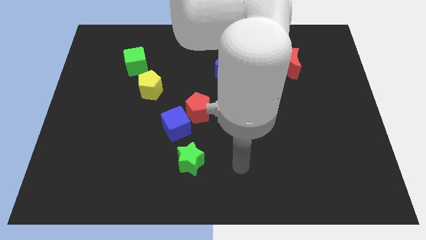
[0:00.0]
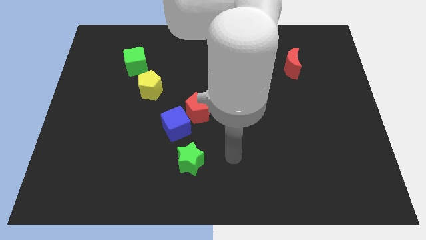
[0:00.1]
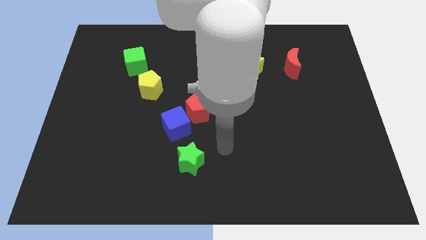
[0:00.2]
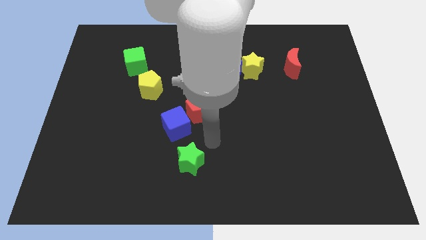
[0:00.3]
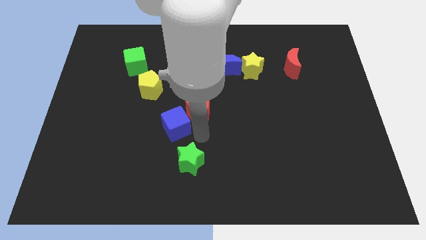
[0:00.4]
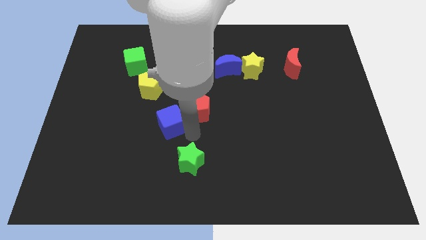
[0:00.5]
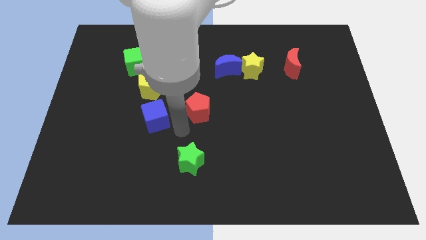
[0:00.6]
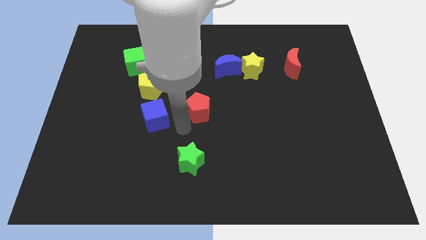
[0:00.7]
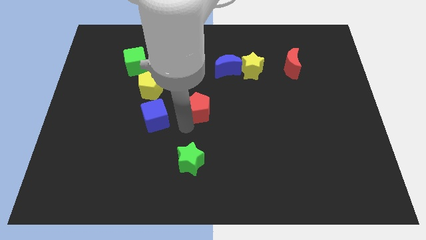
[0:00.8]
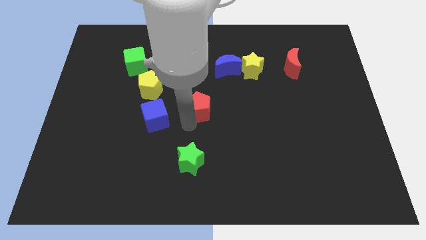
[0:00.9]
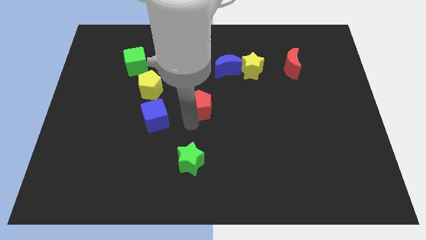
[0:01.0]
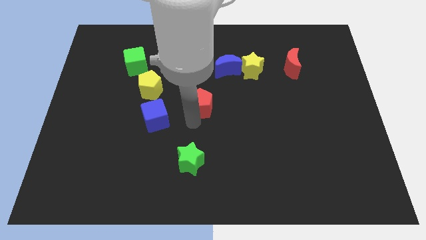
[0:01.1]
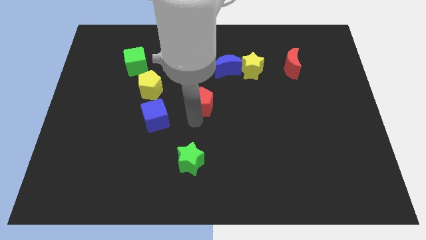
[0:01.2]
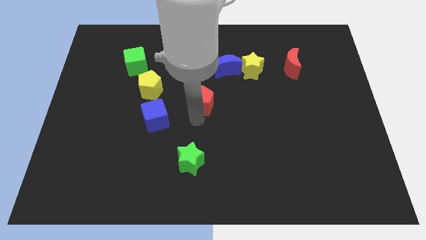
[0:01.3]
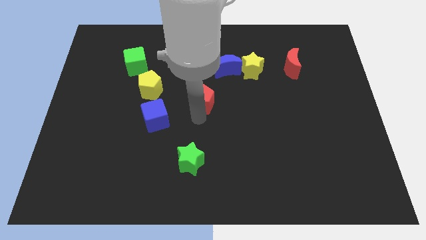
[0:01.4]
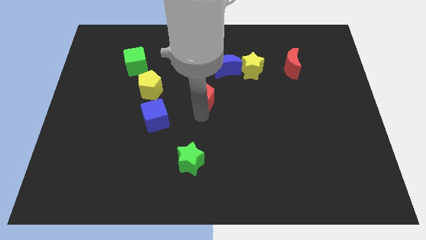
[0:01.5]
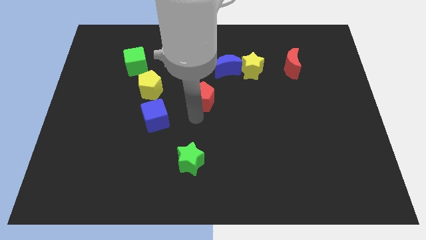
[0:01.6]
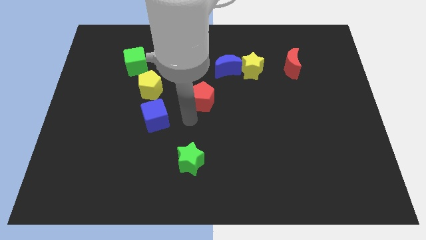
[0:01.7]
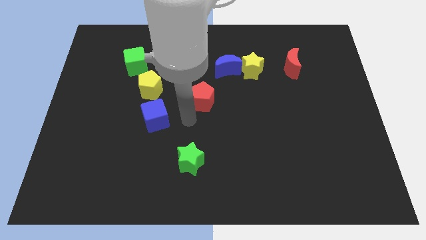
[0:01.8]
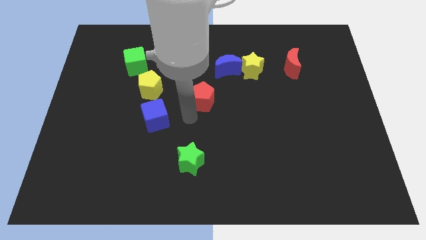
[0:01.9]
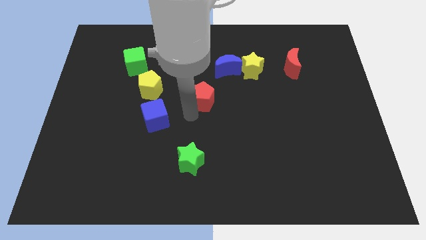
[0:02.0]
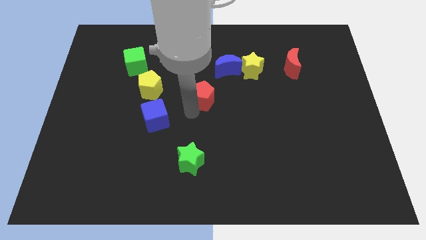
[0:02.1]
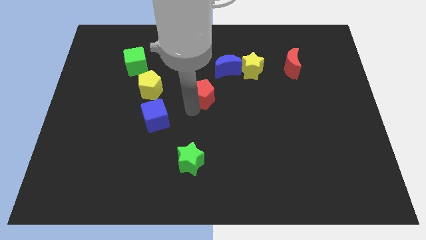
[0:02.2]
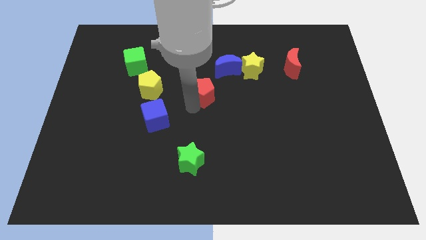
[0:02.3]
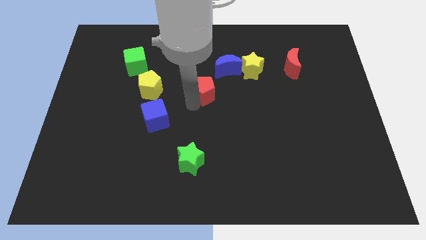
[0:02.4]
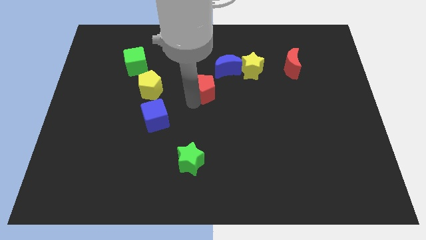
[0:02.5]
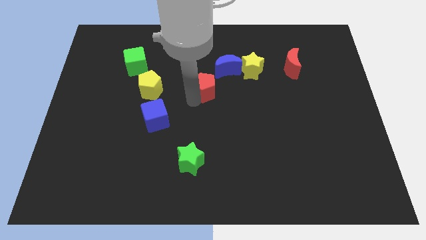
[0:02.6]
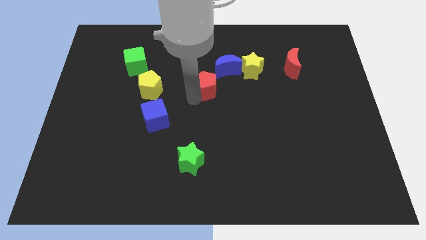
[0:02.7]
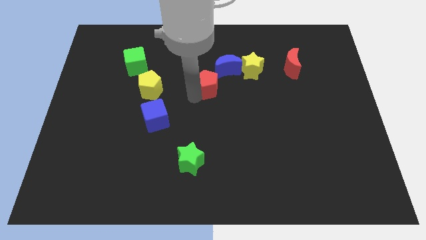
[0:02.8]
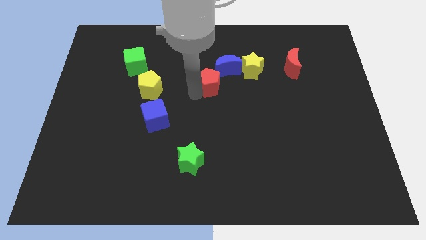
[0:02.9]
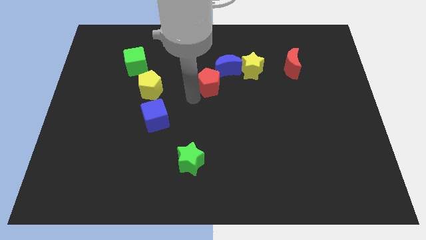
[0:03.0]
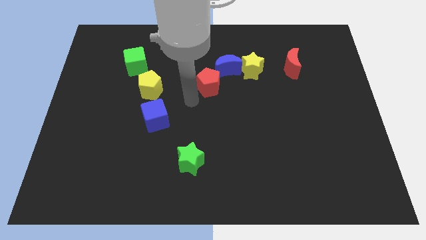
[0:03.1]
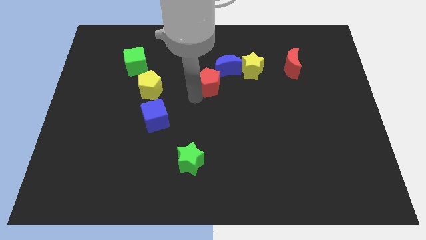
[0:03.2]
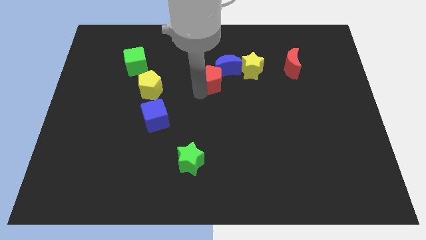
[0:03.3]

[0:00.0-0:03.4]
put the red pentagon next to the blue moon

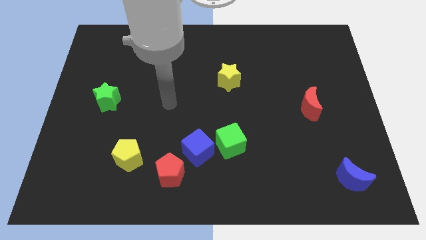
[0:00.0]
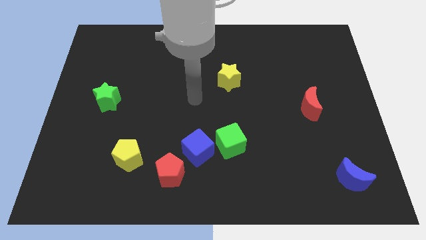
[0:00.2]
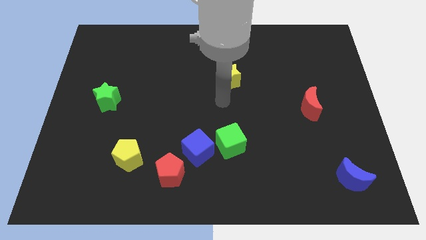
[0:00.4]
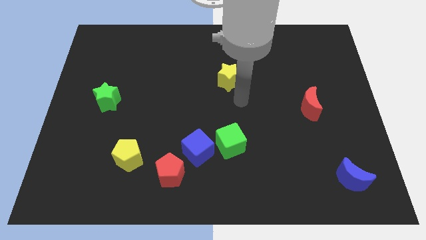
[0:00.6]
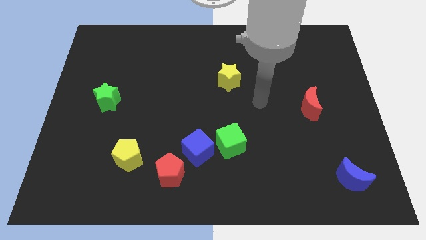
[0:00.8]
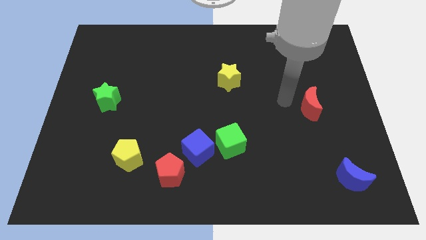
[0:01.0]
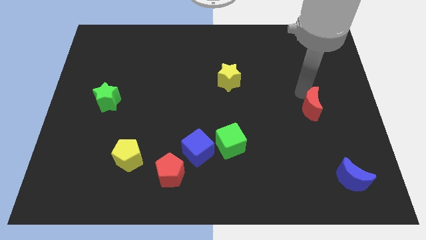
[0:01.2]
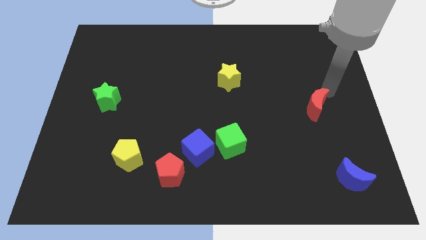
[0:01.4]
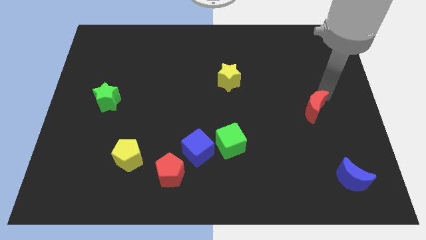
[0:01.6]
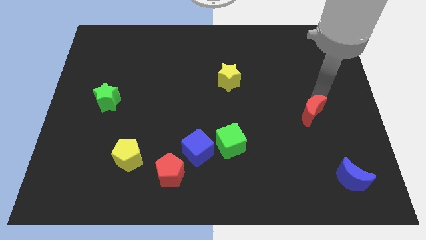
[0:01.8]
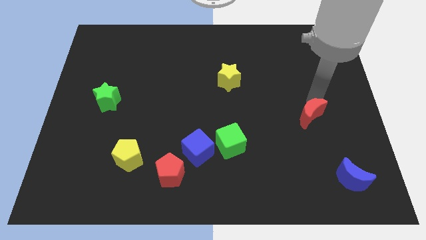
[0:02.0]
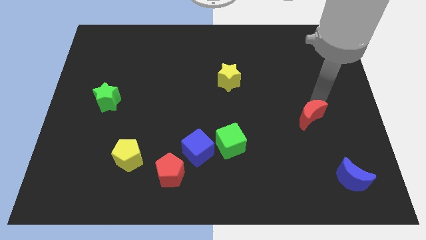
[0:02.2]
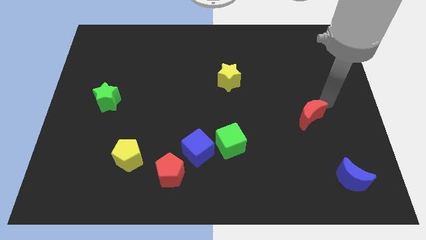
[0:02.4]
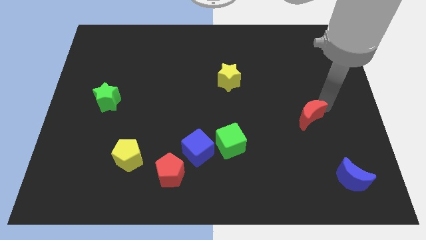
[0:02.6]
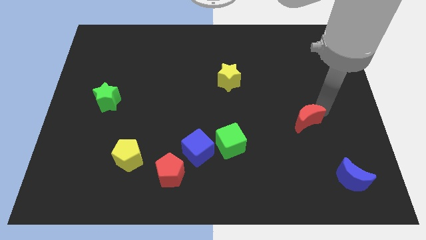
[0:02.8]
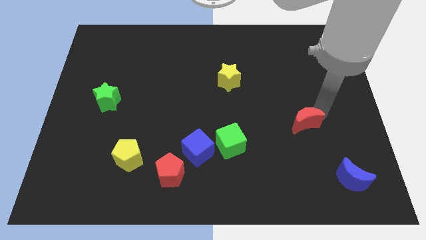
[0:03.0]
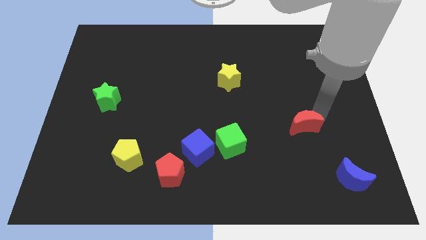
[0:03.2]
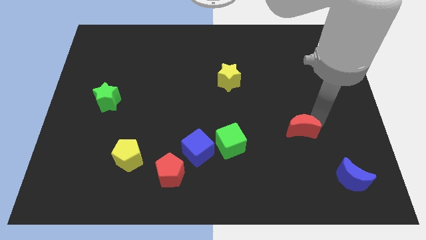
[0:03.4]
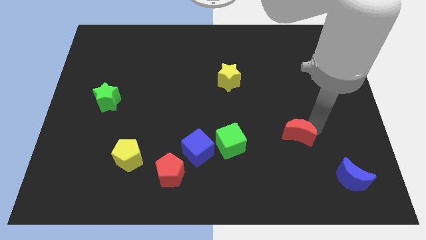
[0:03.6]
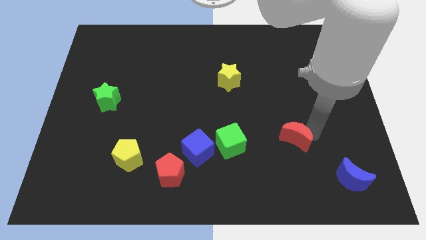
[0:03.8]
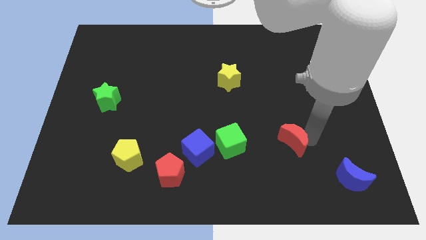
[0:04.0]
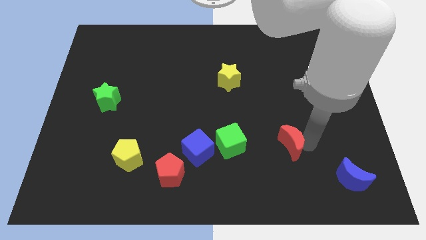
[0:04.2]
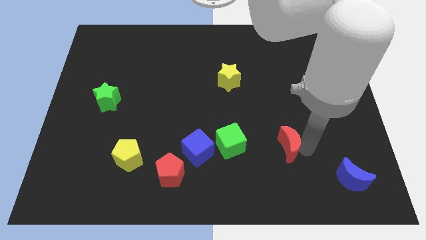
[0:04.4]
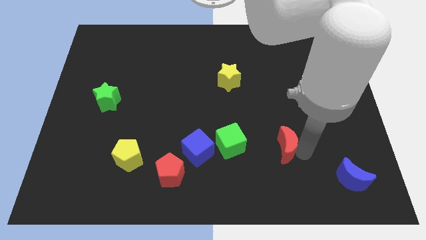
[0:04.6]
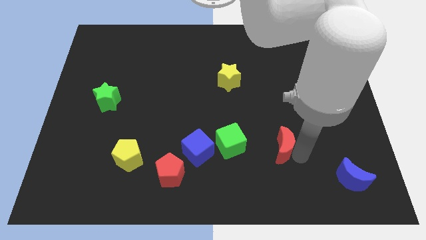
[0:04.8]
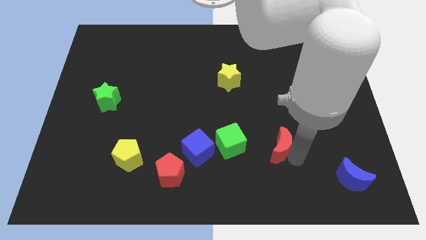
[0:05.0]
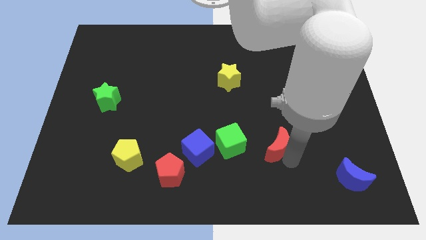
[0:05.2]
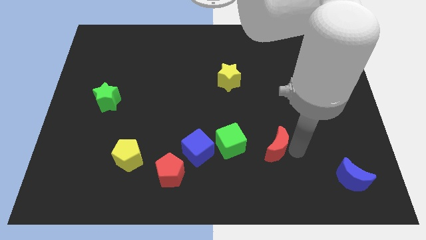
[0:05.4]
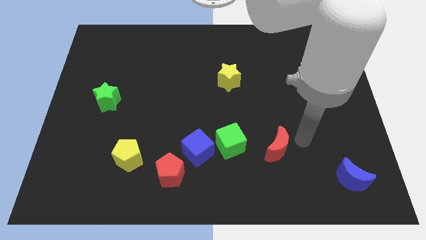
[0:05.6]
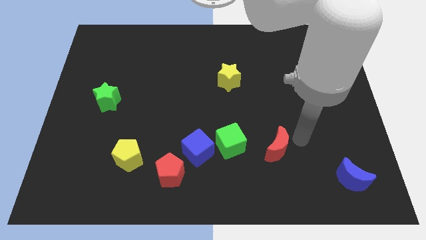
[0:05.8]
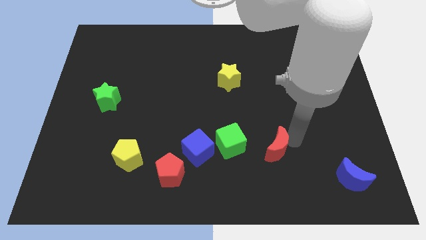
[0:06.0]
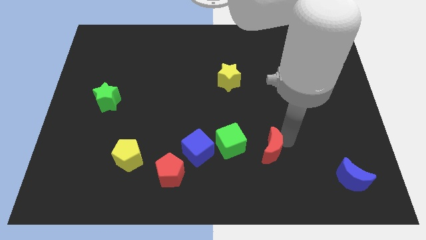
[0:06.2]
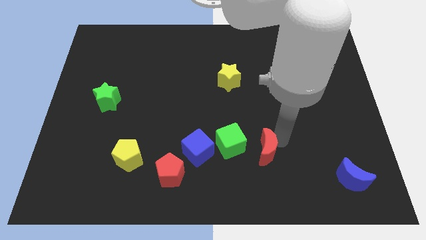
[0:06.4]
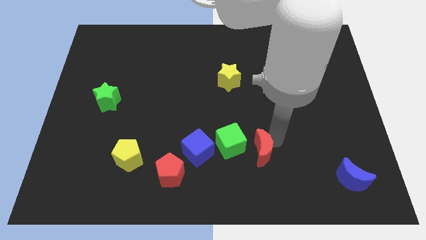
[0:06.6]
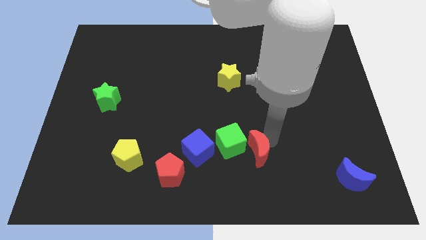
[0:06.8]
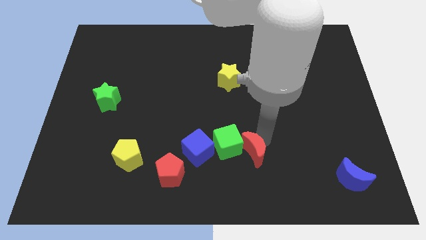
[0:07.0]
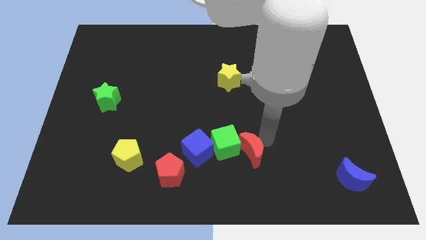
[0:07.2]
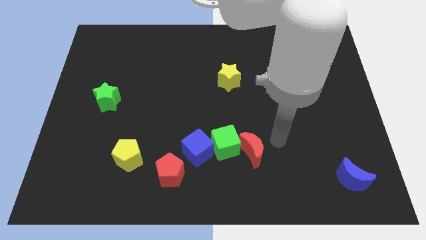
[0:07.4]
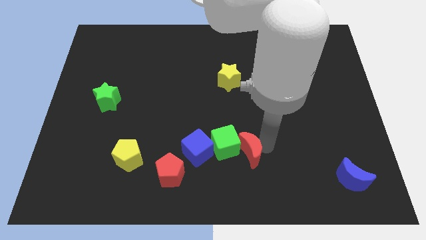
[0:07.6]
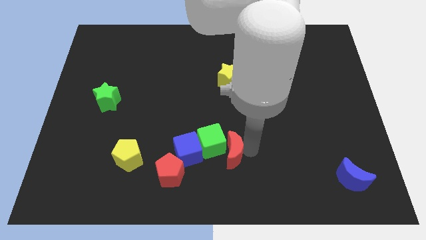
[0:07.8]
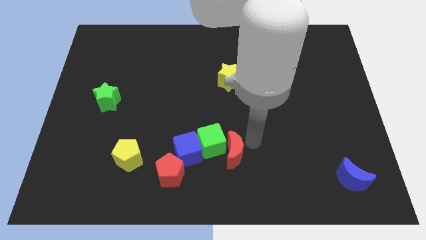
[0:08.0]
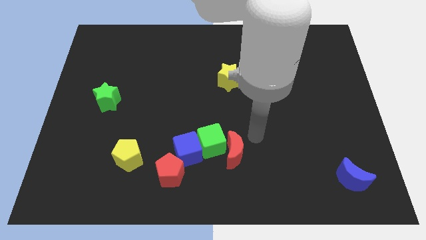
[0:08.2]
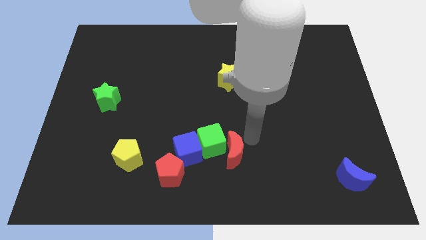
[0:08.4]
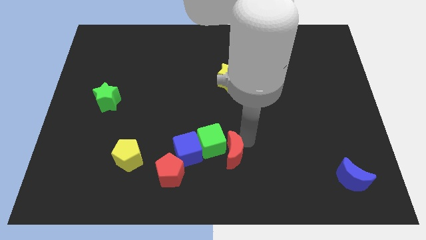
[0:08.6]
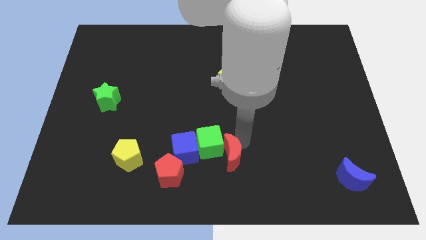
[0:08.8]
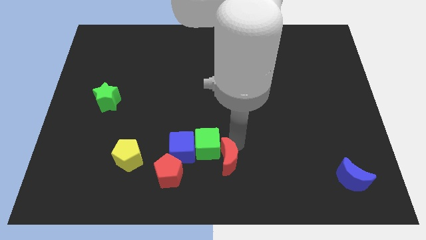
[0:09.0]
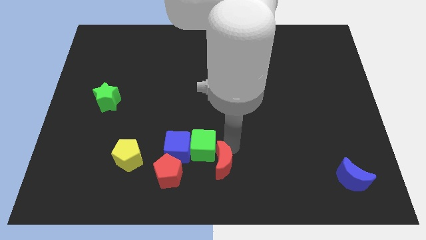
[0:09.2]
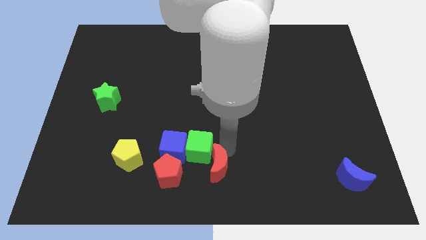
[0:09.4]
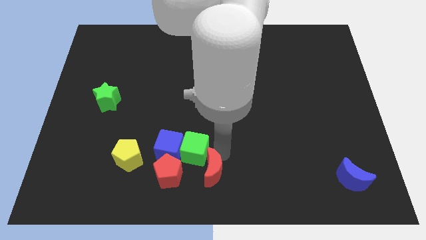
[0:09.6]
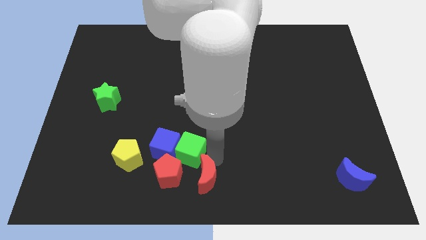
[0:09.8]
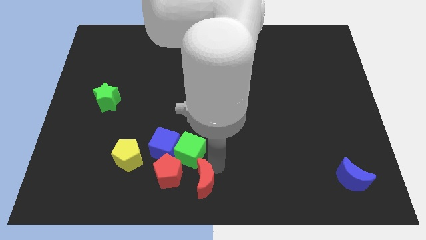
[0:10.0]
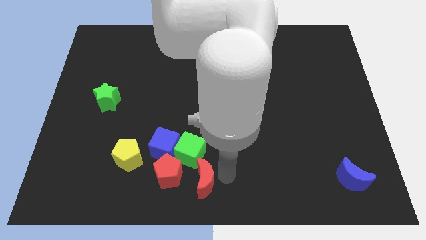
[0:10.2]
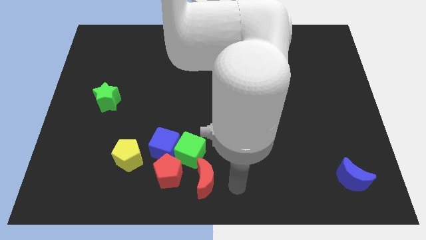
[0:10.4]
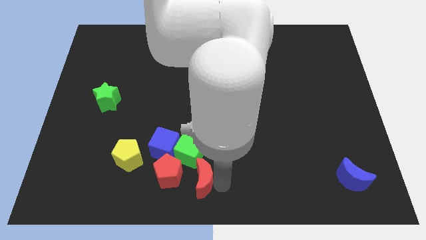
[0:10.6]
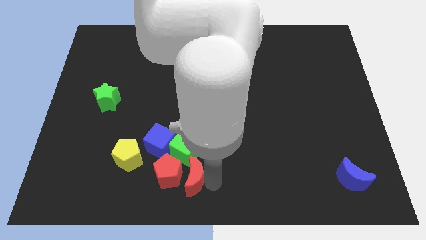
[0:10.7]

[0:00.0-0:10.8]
slide the red moon to the red pentagon
